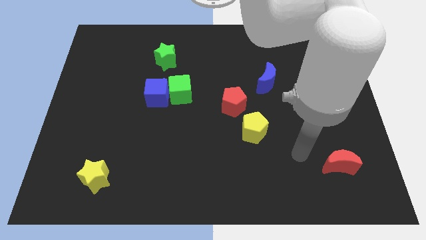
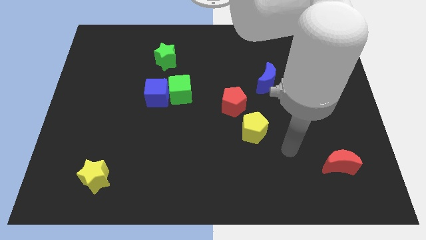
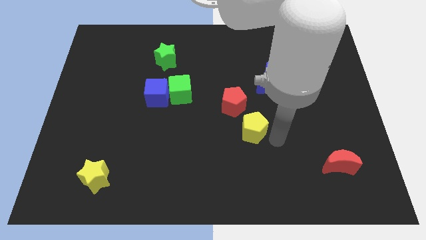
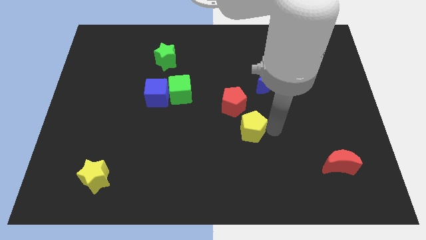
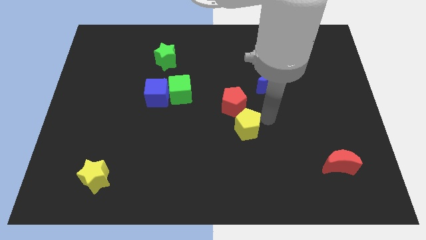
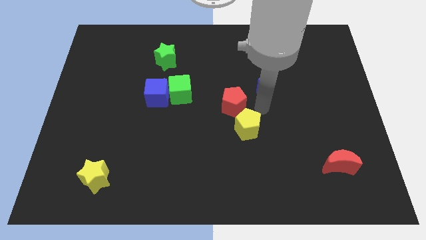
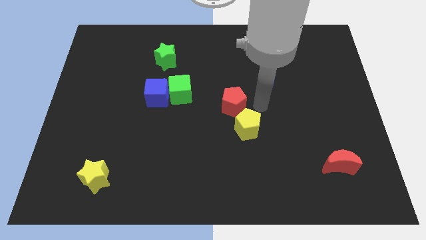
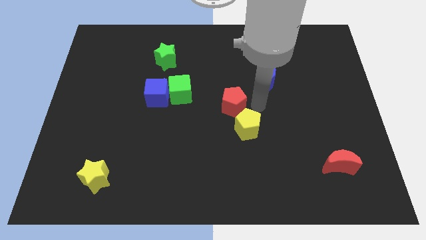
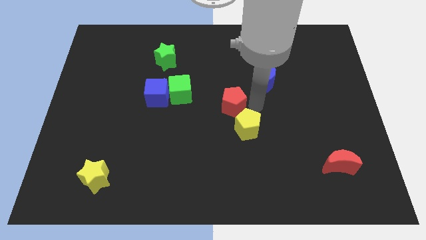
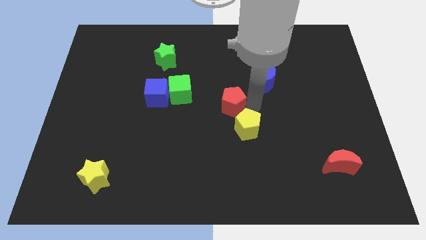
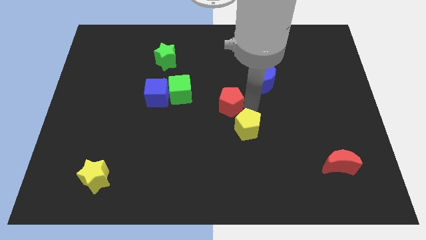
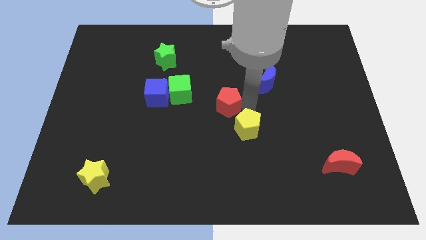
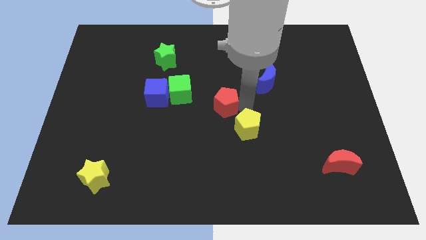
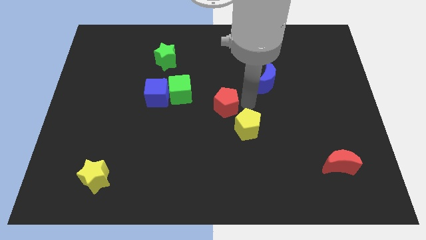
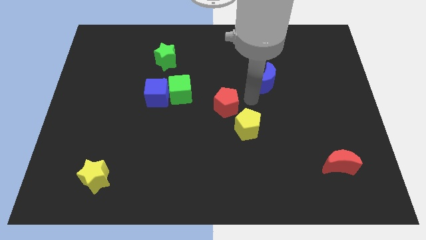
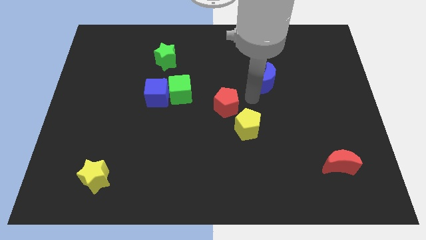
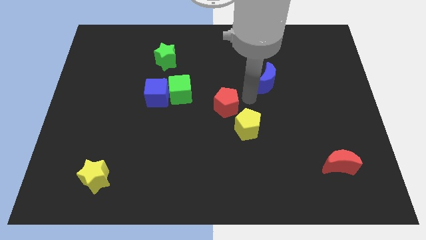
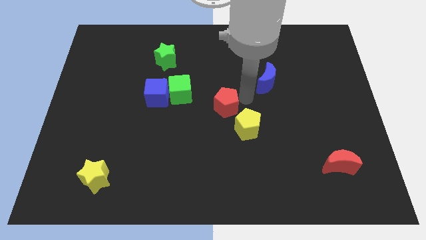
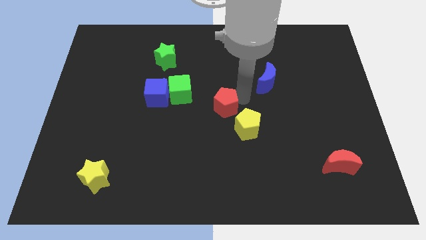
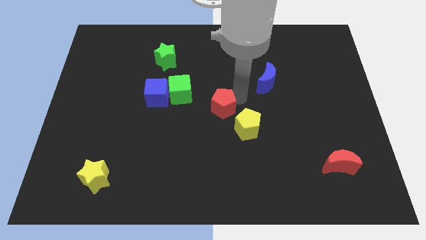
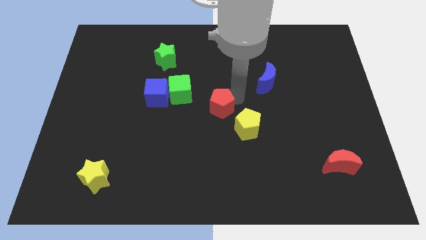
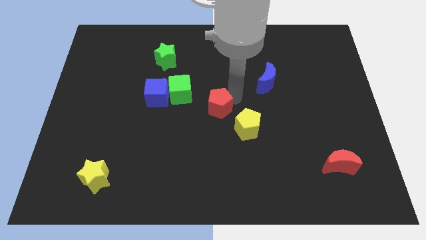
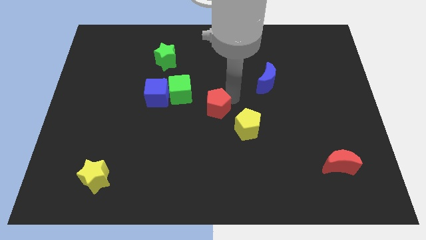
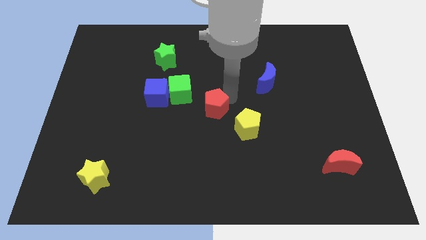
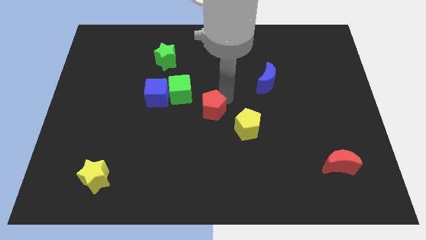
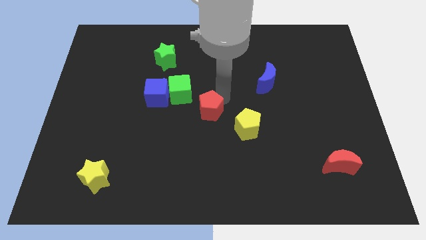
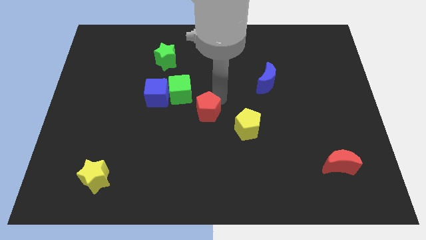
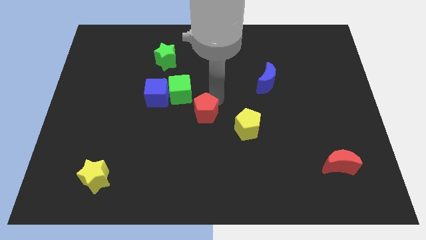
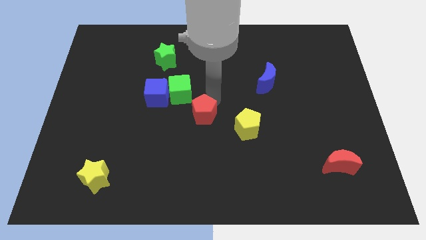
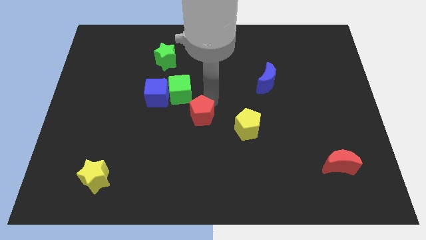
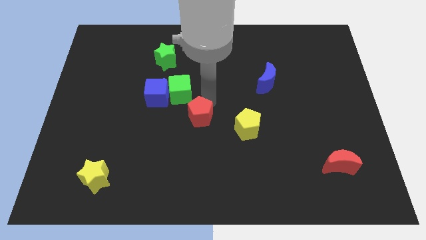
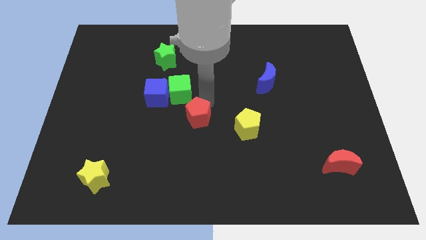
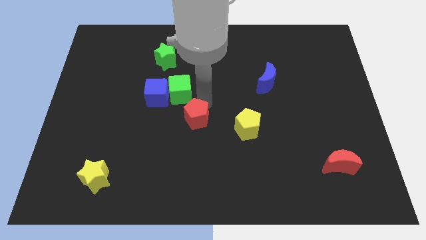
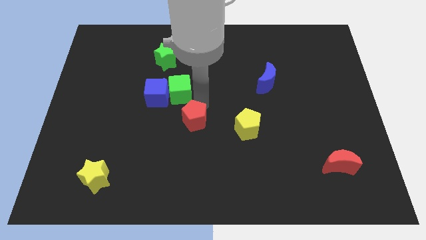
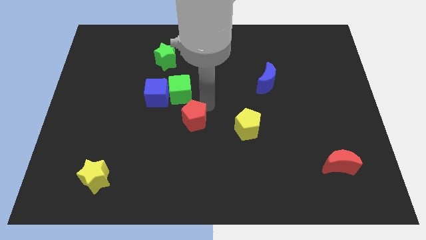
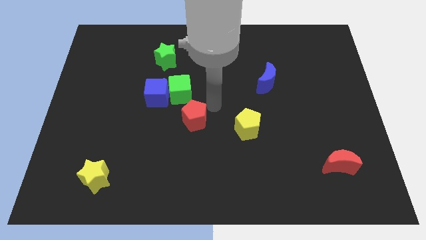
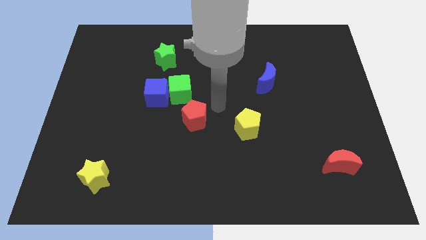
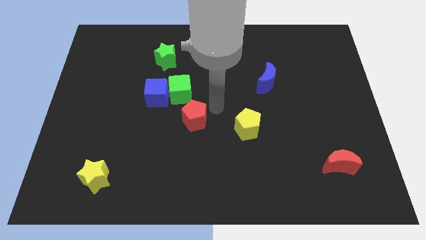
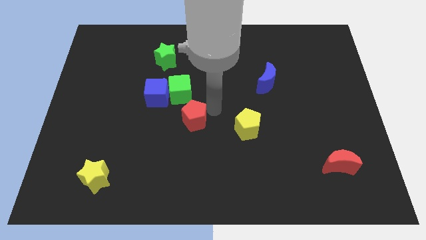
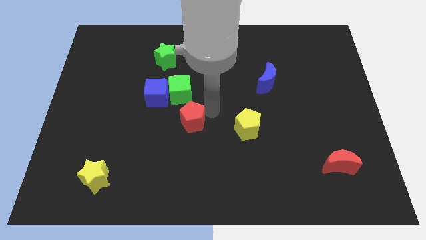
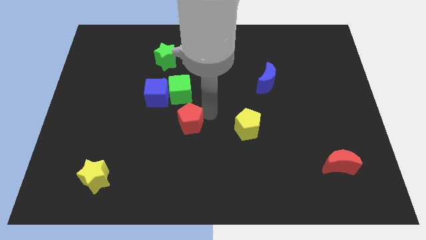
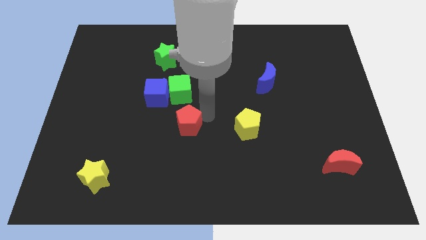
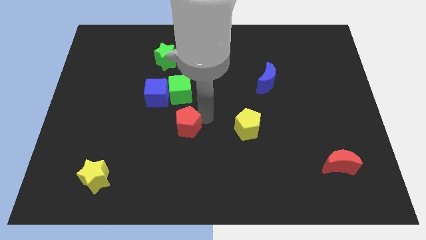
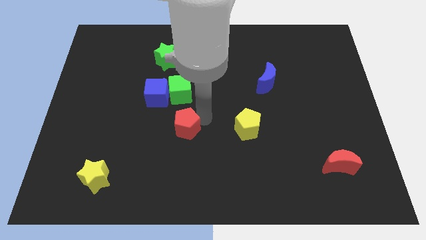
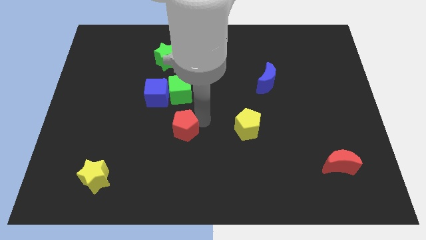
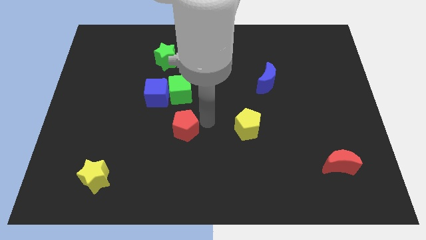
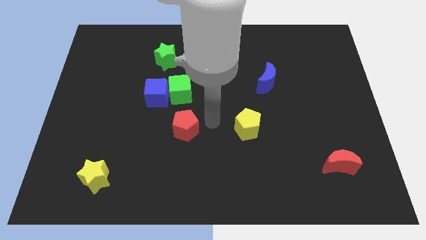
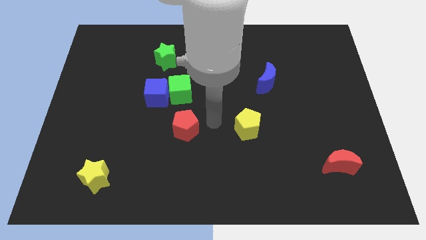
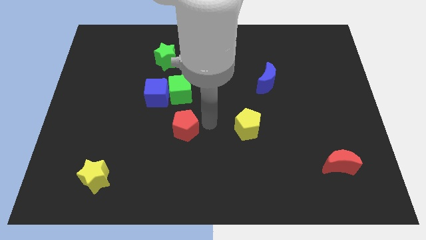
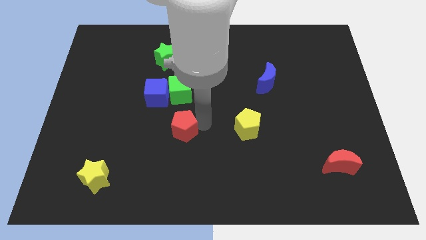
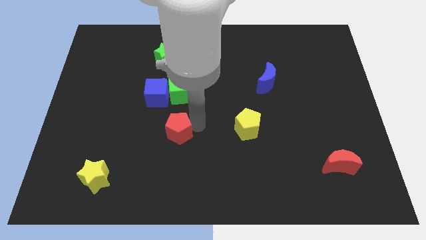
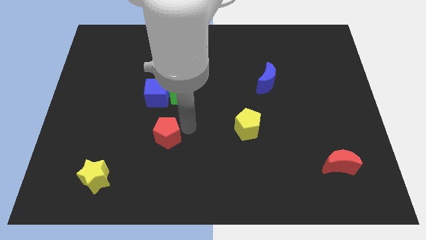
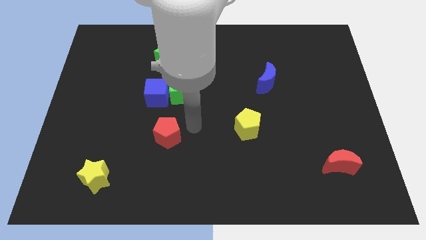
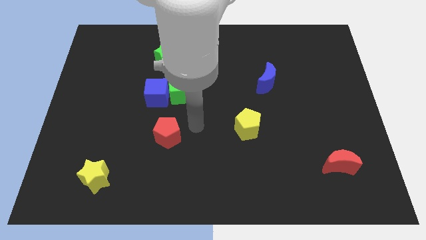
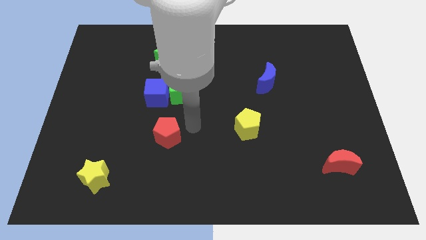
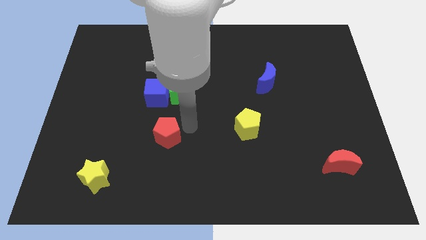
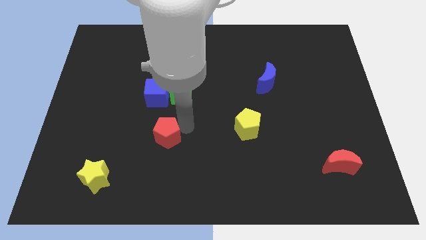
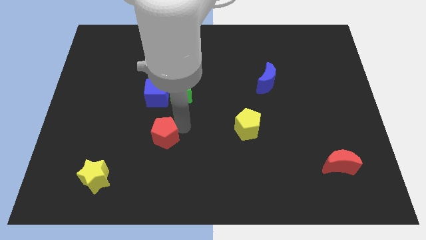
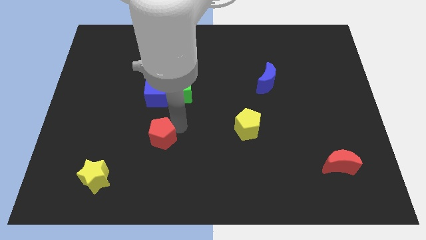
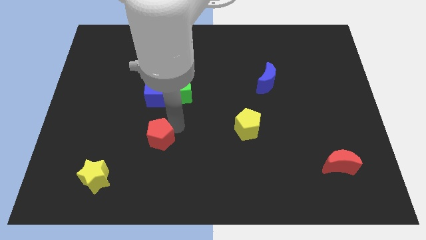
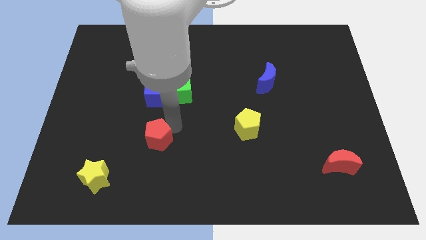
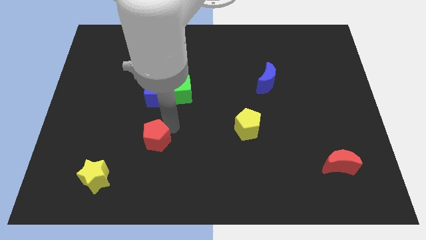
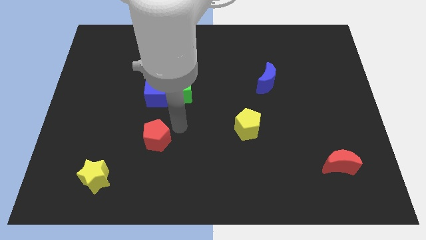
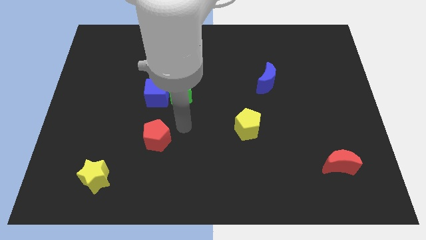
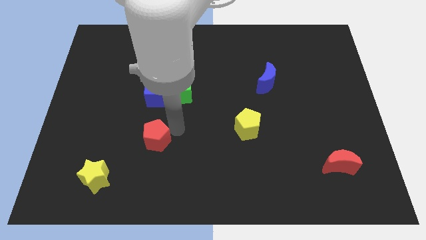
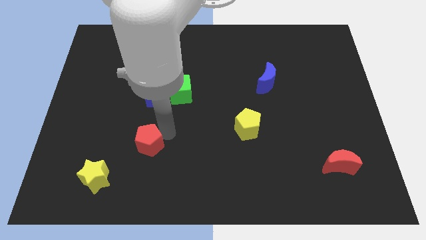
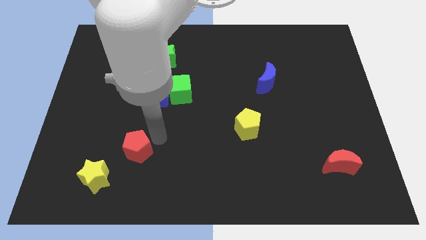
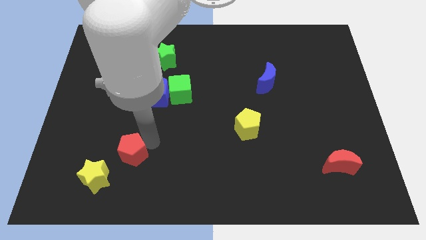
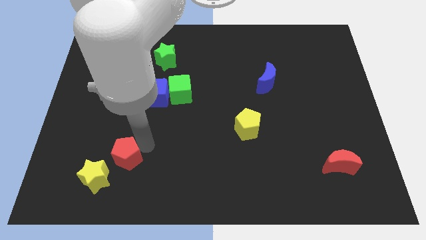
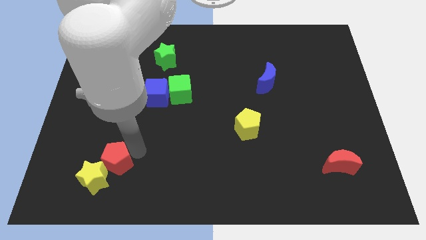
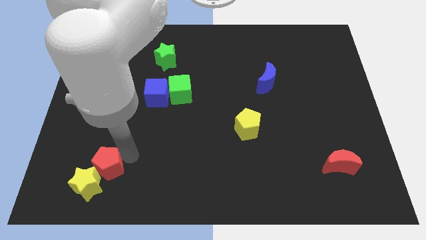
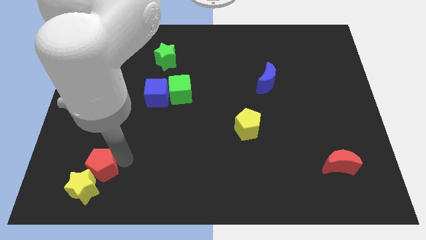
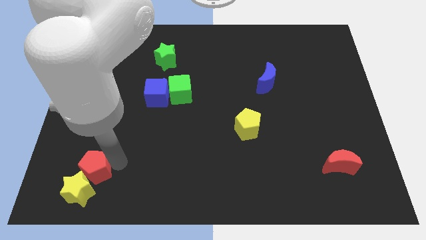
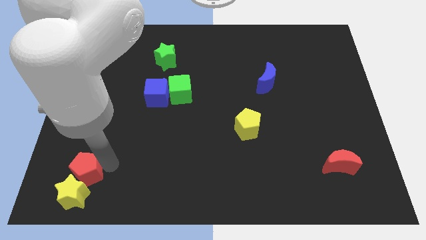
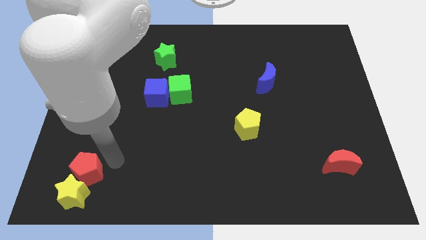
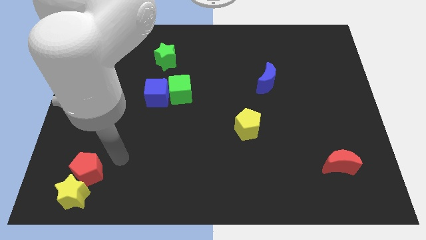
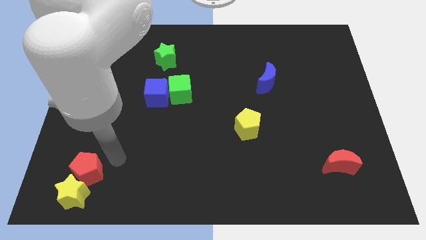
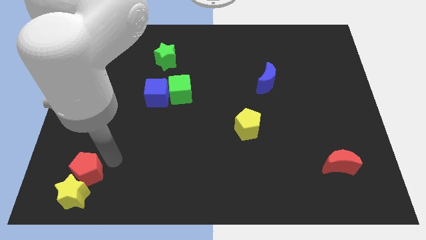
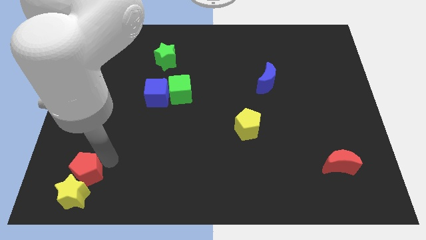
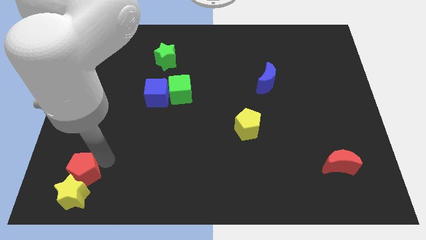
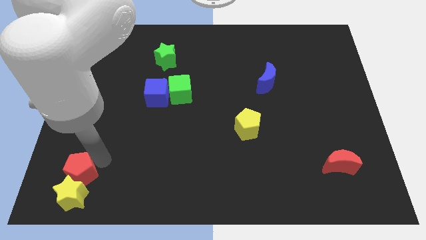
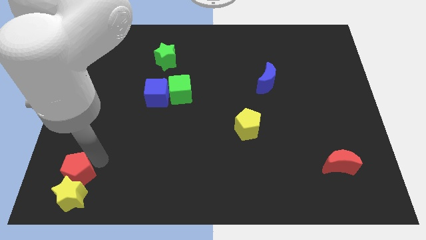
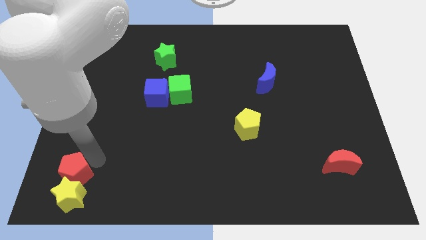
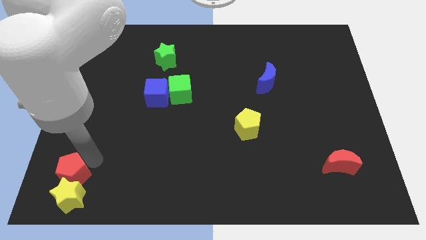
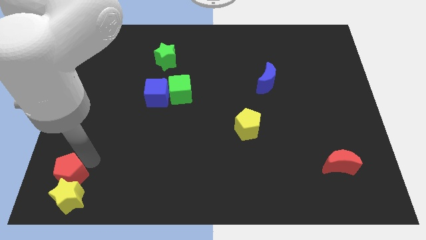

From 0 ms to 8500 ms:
slide the red pentagon to the bottom left of the board
